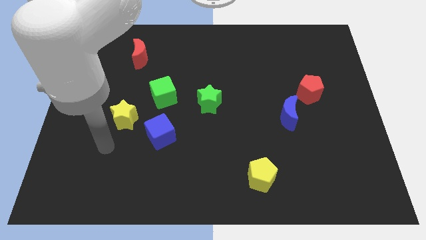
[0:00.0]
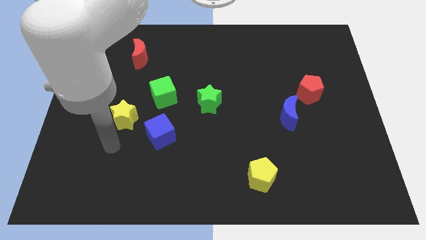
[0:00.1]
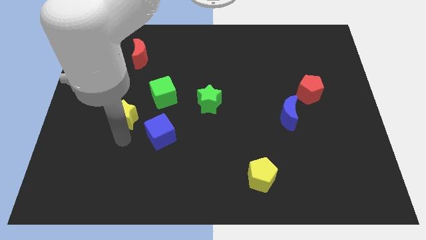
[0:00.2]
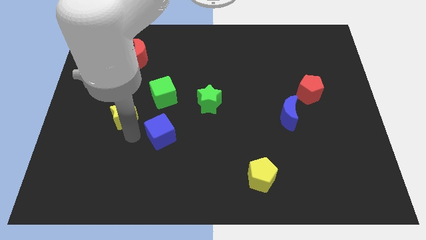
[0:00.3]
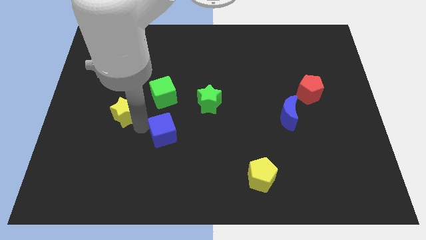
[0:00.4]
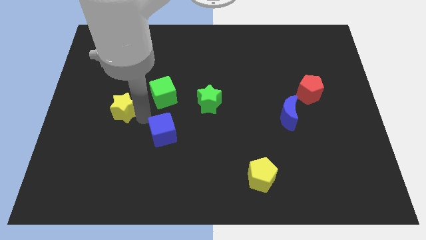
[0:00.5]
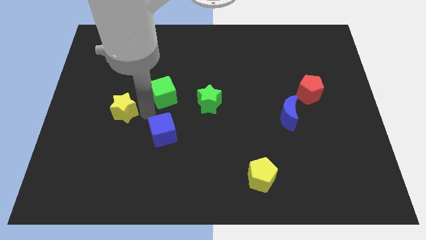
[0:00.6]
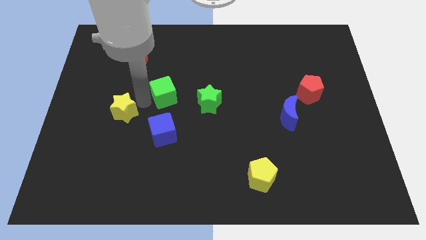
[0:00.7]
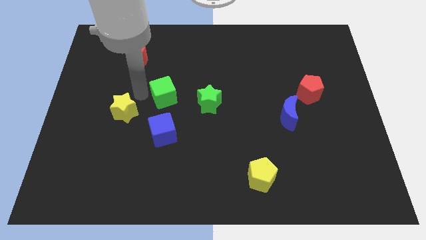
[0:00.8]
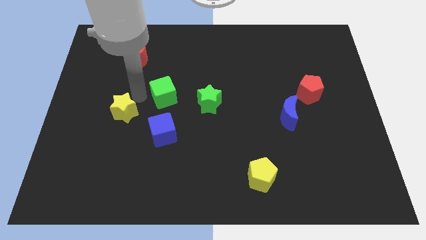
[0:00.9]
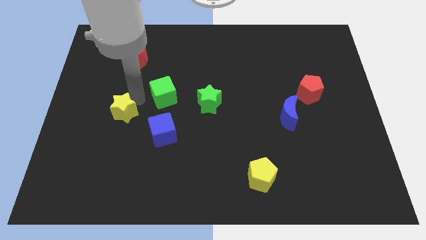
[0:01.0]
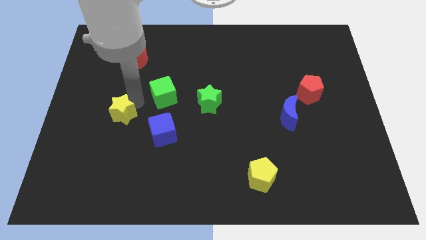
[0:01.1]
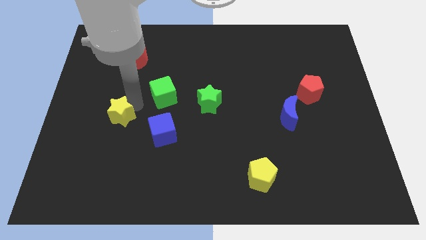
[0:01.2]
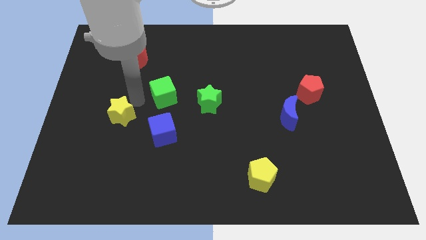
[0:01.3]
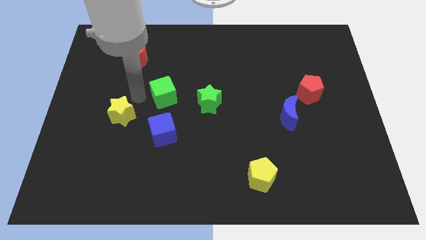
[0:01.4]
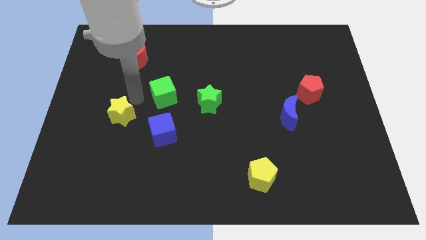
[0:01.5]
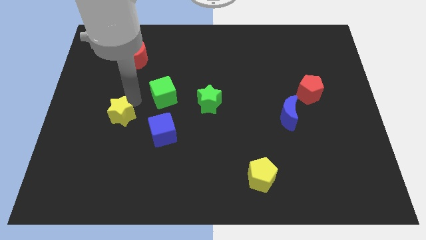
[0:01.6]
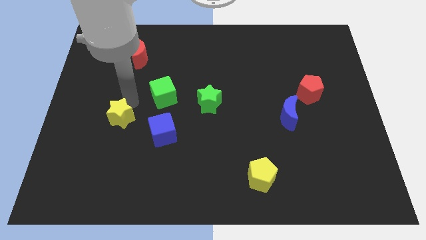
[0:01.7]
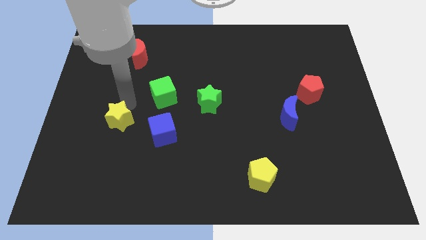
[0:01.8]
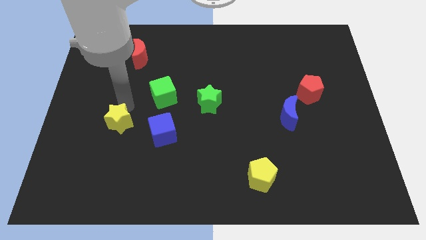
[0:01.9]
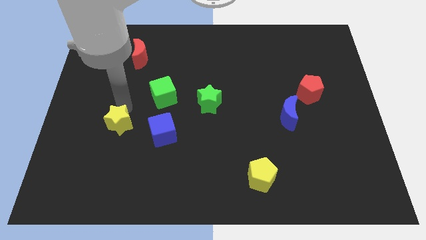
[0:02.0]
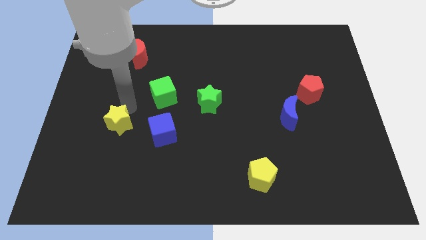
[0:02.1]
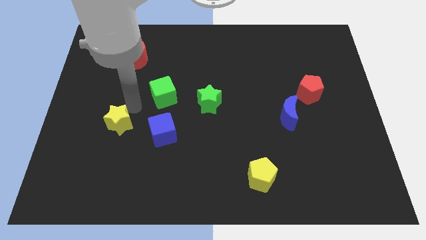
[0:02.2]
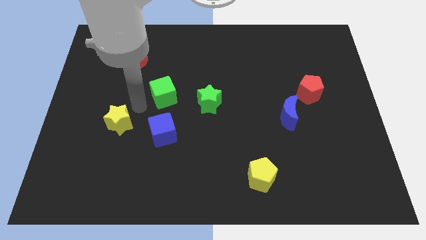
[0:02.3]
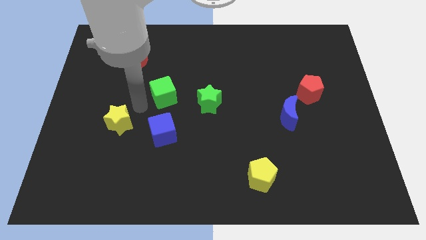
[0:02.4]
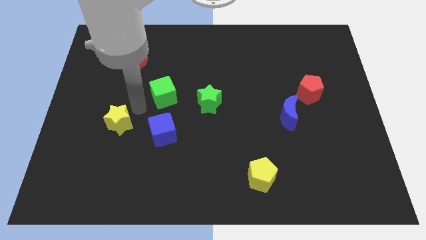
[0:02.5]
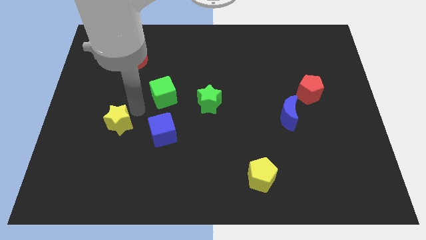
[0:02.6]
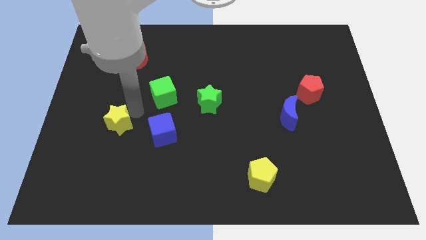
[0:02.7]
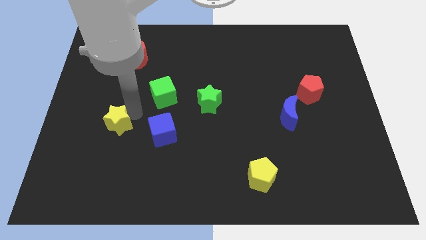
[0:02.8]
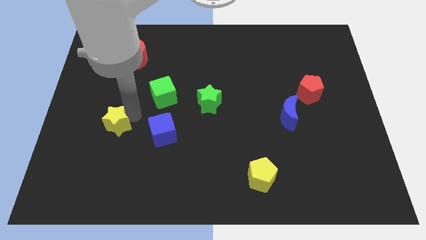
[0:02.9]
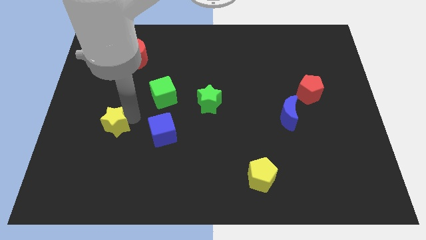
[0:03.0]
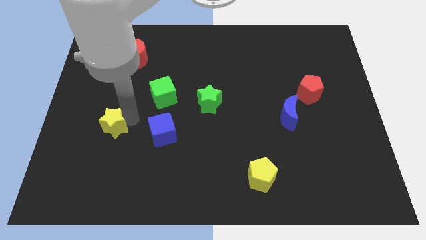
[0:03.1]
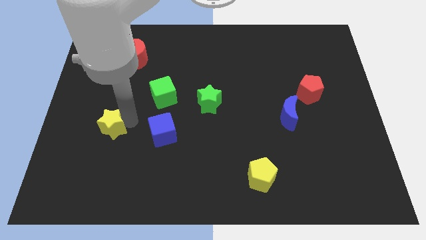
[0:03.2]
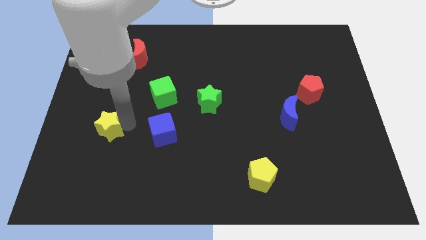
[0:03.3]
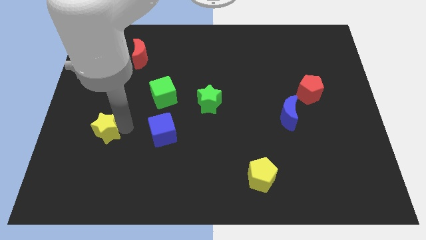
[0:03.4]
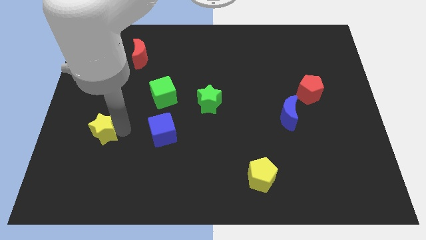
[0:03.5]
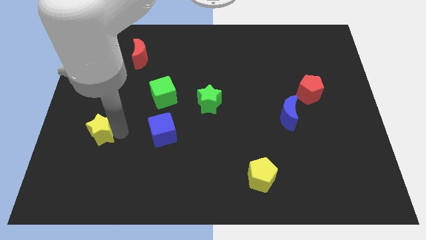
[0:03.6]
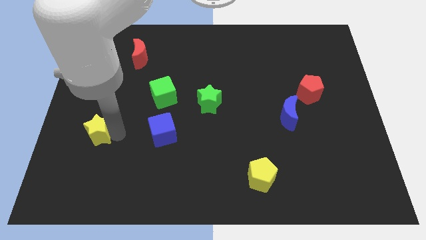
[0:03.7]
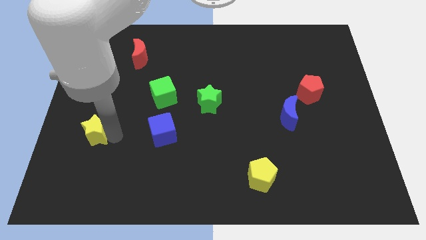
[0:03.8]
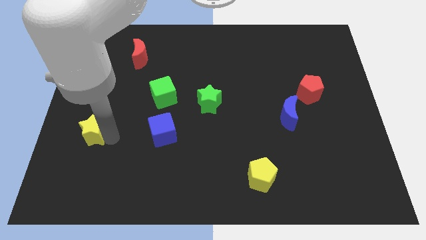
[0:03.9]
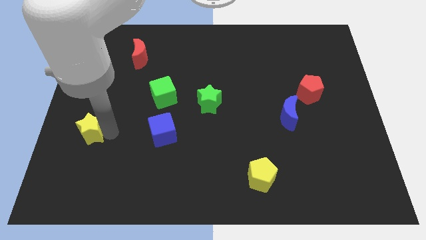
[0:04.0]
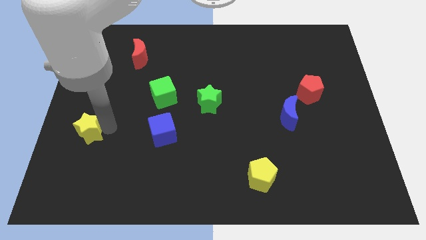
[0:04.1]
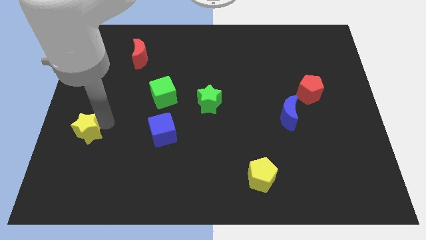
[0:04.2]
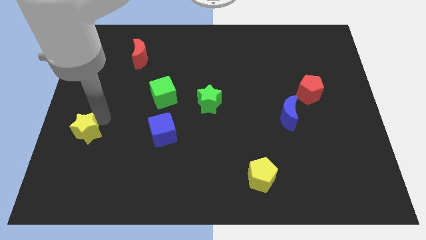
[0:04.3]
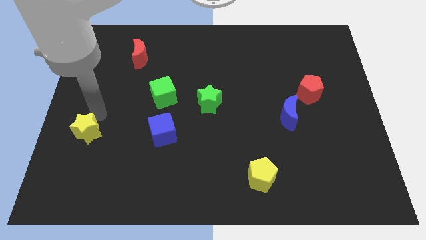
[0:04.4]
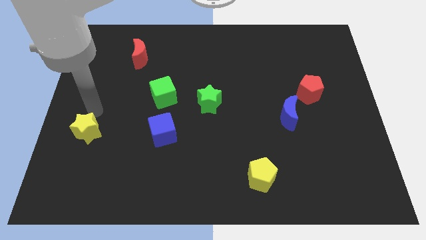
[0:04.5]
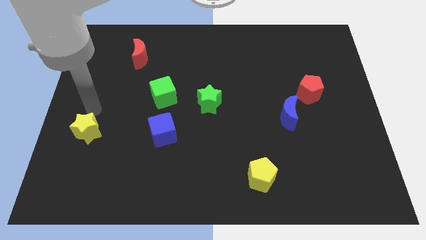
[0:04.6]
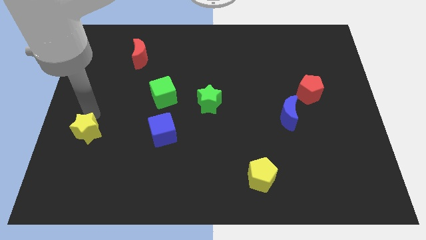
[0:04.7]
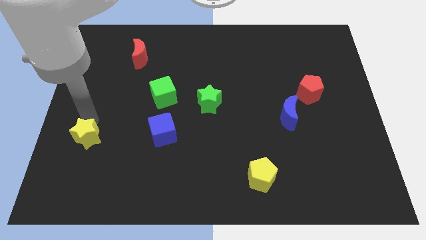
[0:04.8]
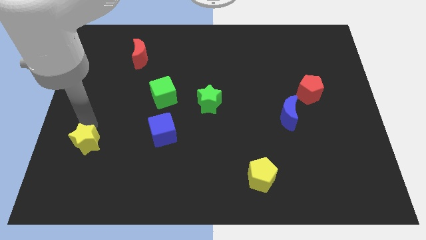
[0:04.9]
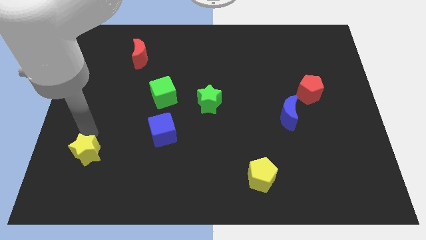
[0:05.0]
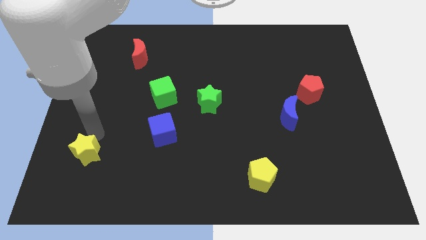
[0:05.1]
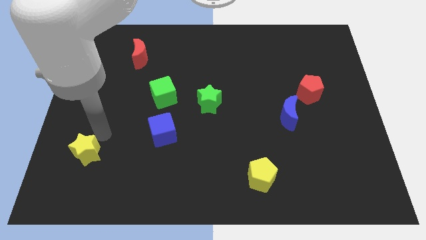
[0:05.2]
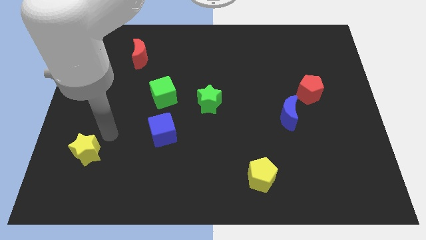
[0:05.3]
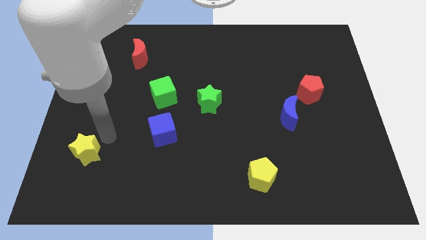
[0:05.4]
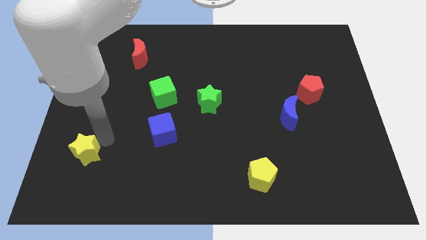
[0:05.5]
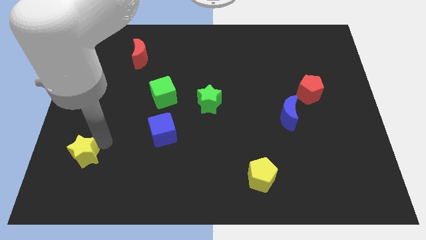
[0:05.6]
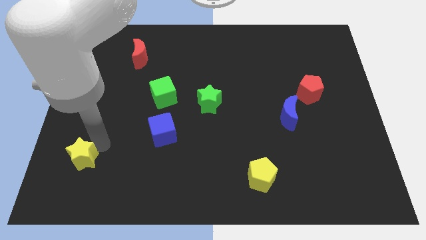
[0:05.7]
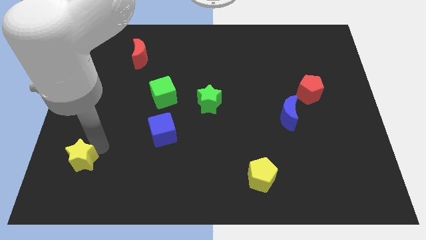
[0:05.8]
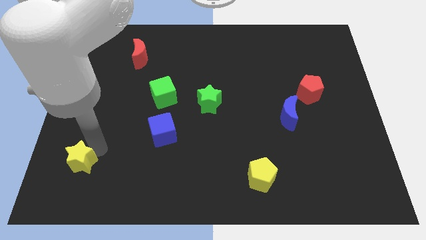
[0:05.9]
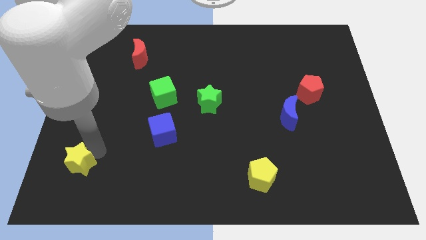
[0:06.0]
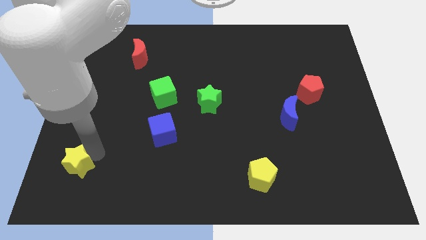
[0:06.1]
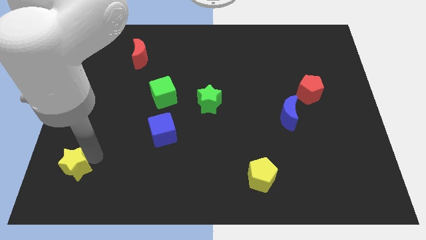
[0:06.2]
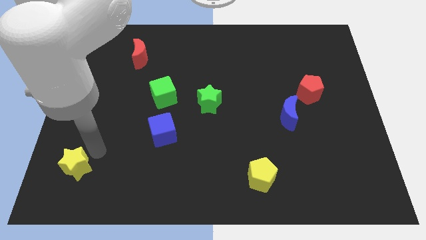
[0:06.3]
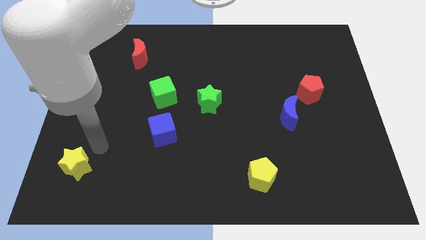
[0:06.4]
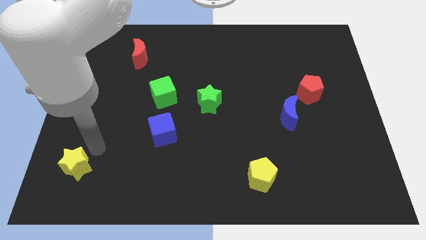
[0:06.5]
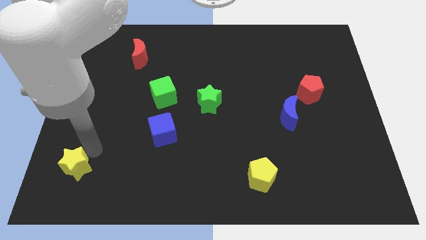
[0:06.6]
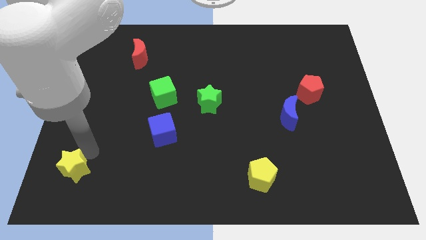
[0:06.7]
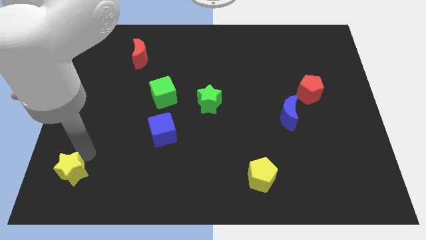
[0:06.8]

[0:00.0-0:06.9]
move the yellow star to the bottom left corner
